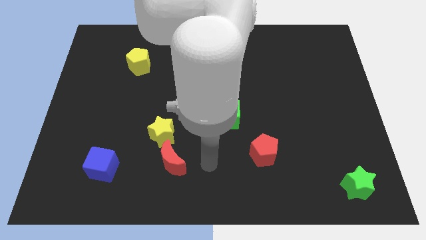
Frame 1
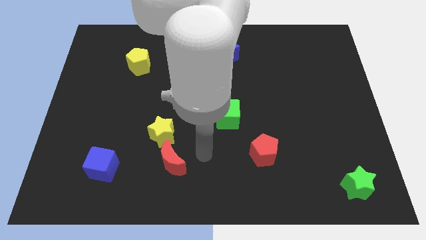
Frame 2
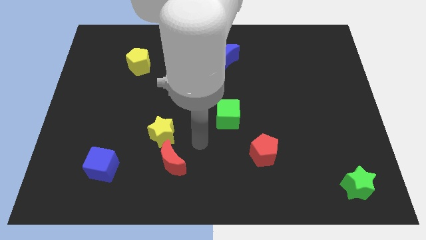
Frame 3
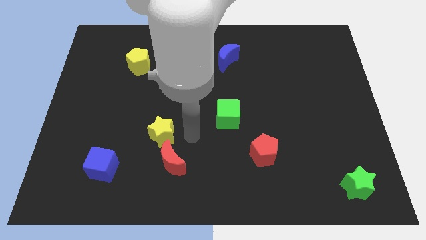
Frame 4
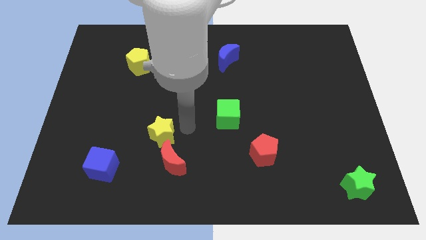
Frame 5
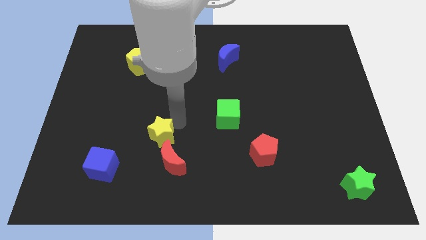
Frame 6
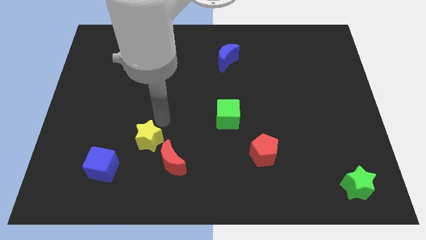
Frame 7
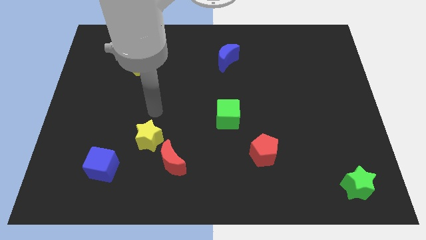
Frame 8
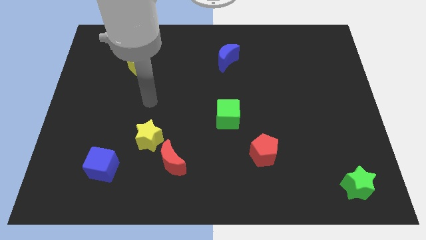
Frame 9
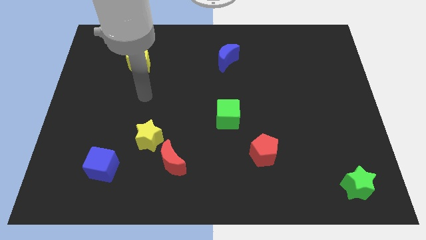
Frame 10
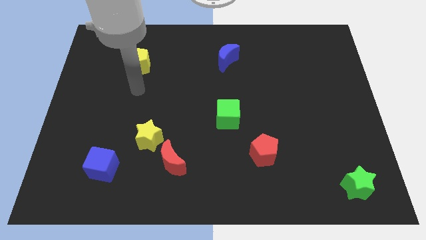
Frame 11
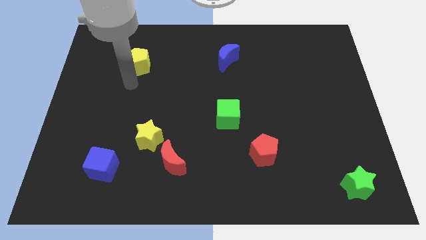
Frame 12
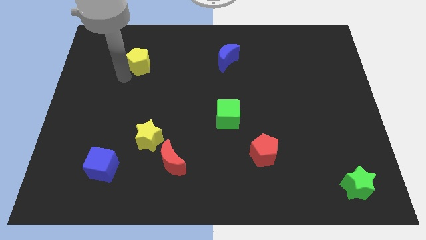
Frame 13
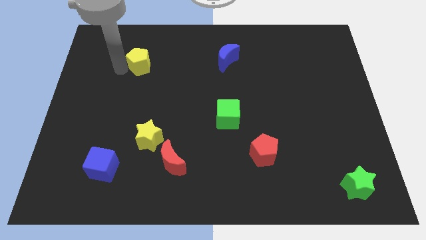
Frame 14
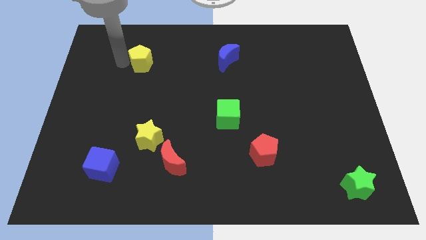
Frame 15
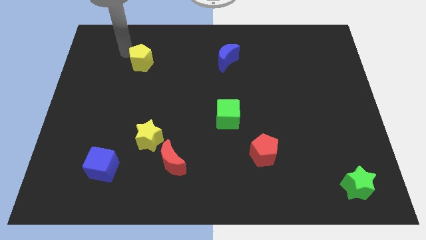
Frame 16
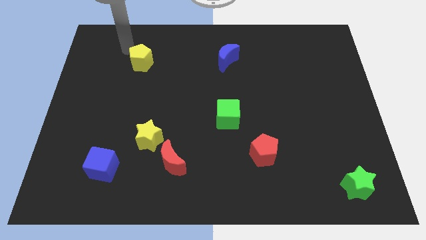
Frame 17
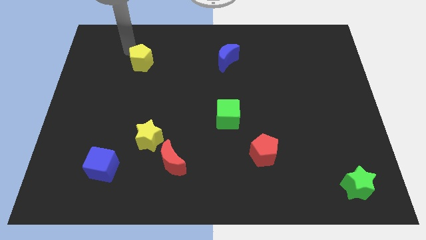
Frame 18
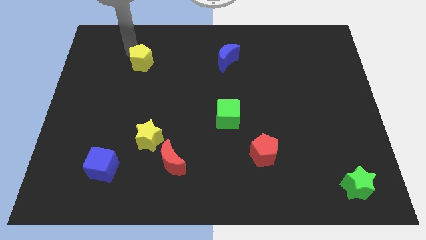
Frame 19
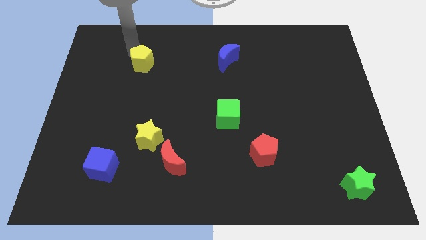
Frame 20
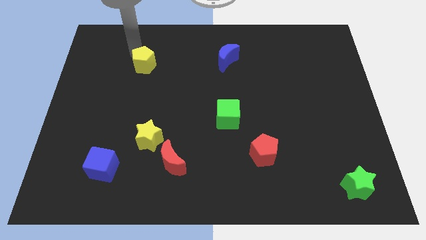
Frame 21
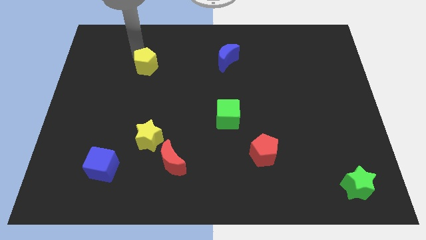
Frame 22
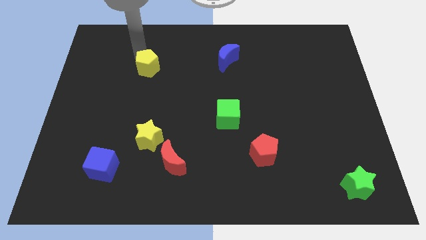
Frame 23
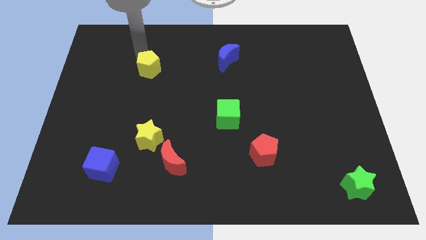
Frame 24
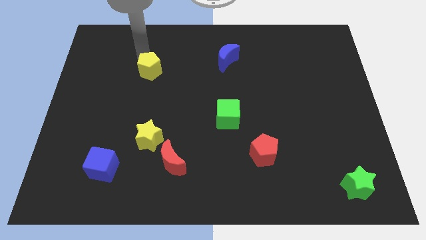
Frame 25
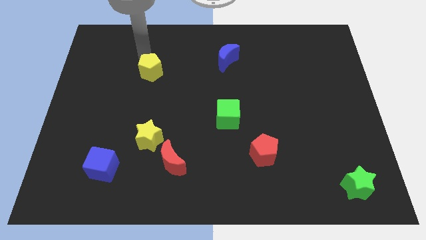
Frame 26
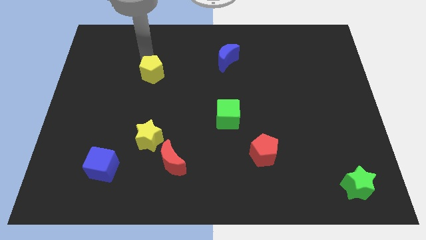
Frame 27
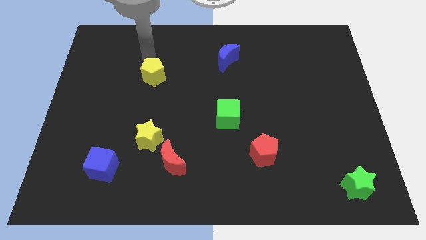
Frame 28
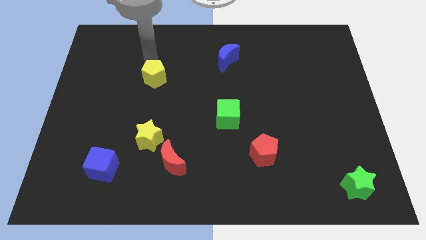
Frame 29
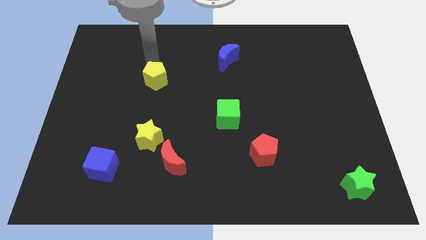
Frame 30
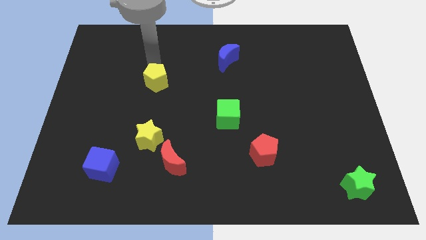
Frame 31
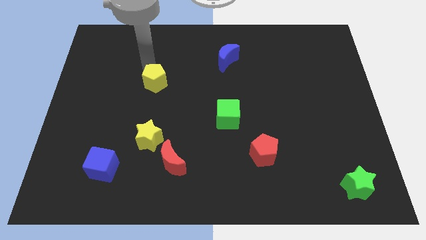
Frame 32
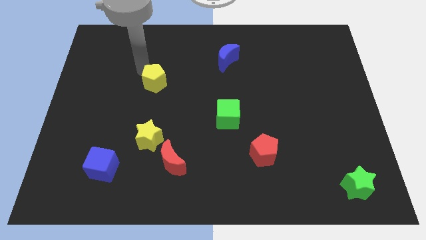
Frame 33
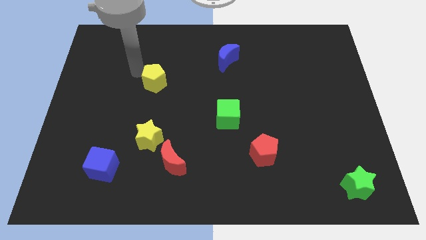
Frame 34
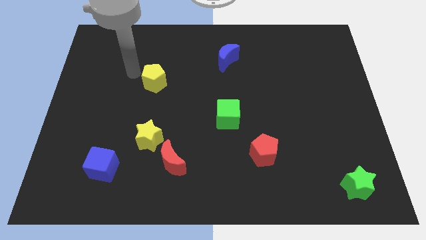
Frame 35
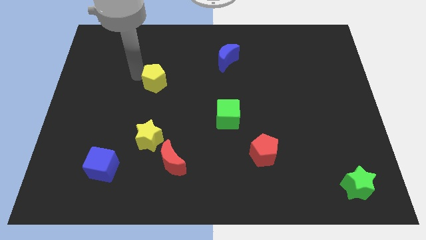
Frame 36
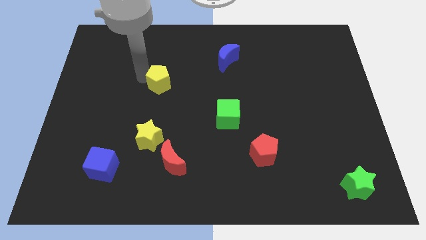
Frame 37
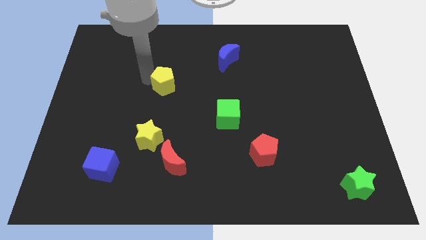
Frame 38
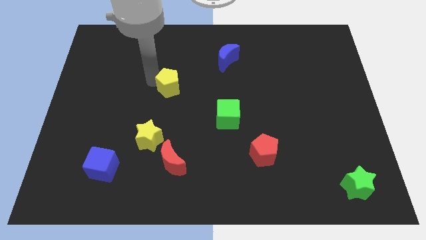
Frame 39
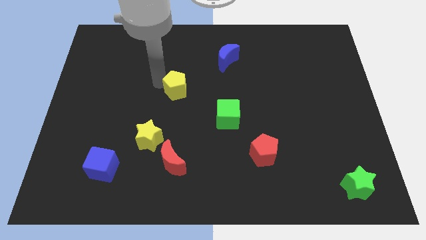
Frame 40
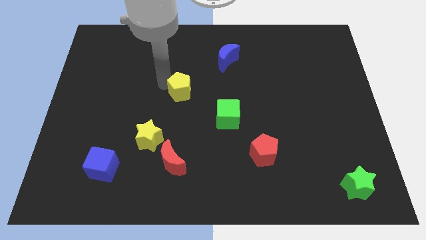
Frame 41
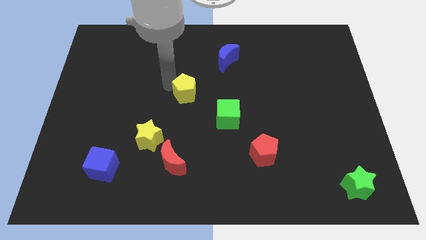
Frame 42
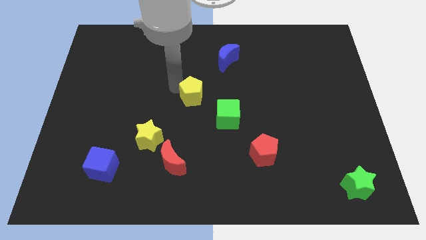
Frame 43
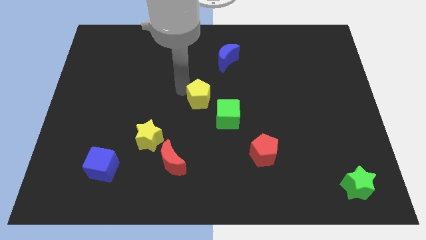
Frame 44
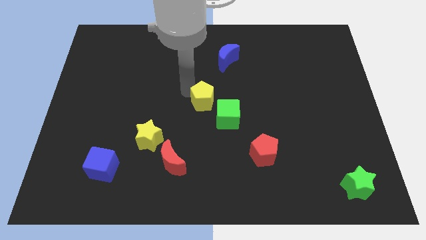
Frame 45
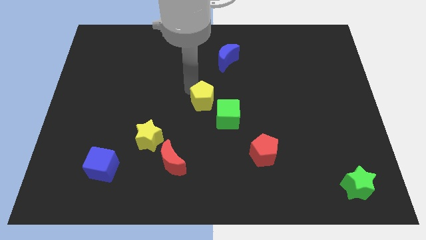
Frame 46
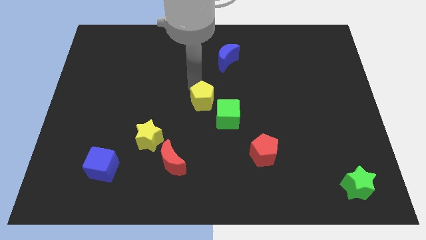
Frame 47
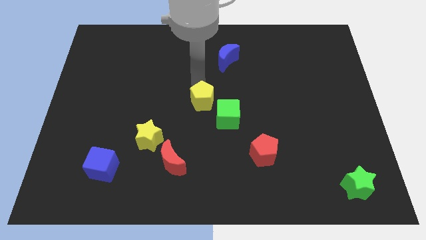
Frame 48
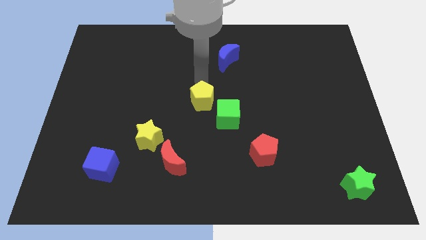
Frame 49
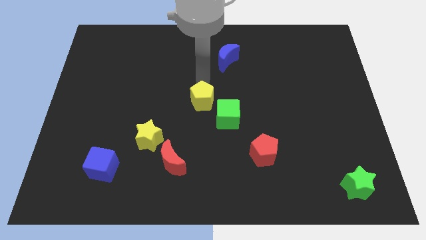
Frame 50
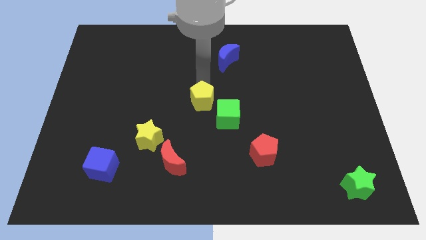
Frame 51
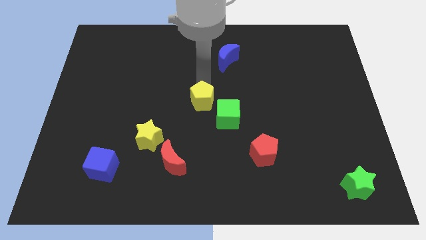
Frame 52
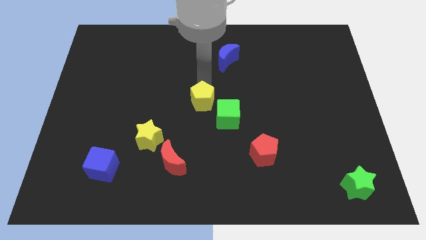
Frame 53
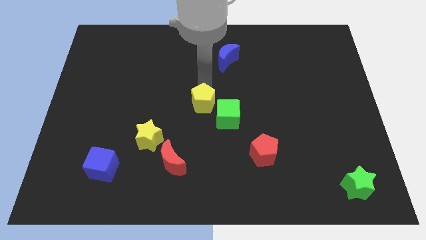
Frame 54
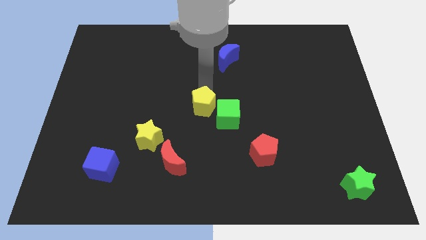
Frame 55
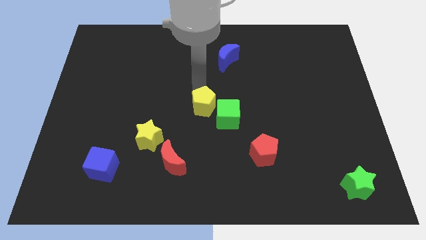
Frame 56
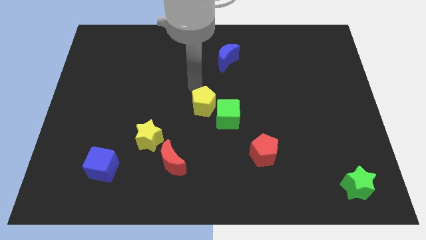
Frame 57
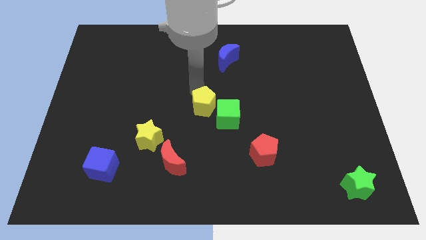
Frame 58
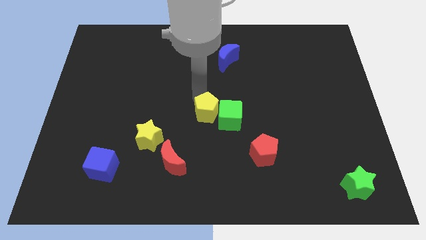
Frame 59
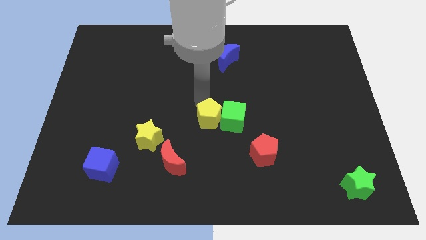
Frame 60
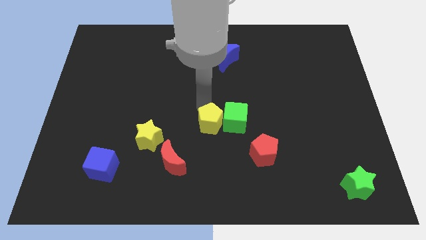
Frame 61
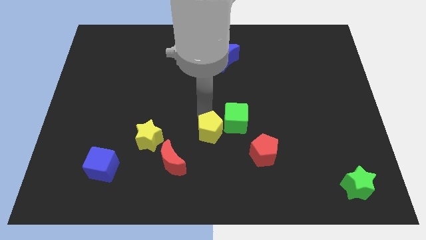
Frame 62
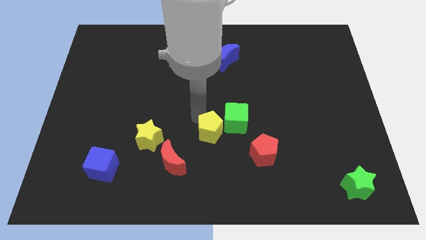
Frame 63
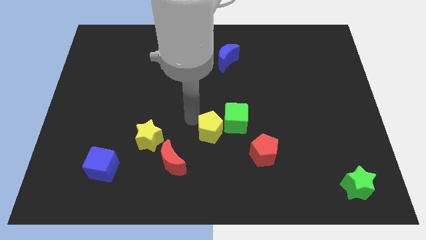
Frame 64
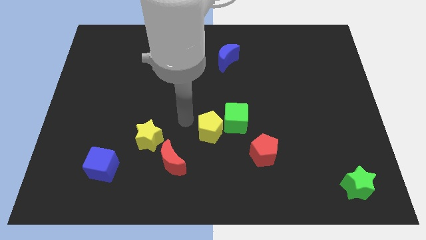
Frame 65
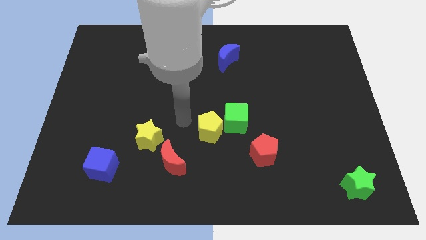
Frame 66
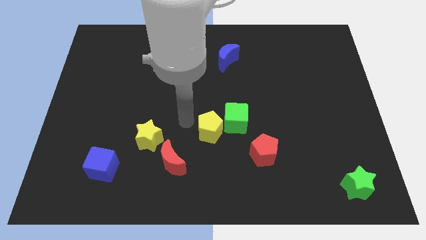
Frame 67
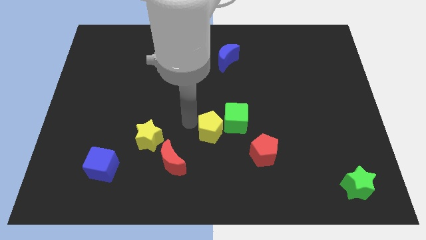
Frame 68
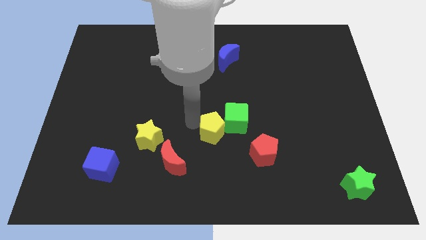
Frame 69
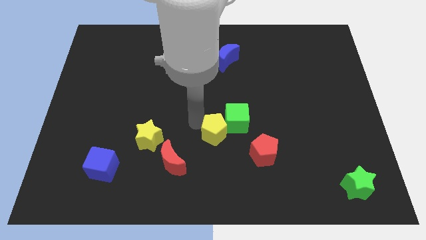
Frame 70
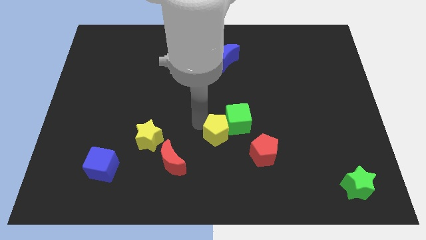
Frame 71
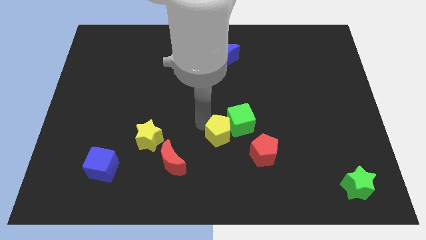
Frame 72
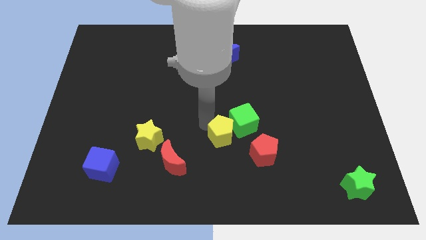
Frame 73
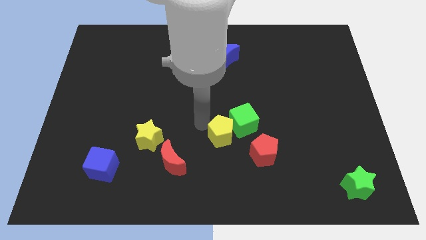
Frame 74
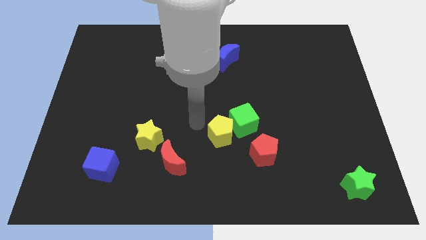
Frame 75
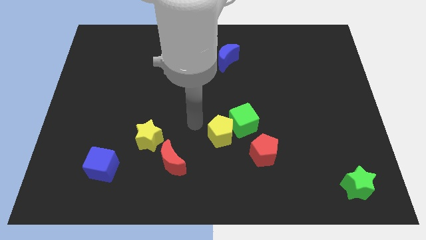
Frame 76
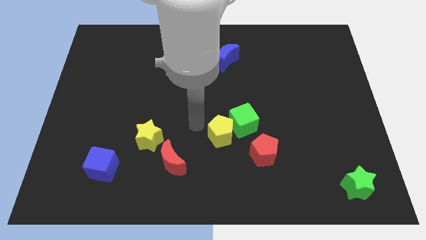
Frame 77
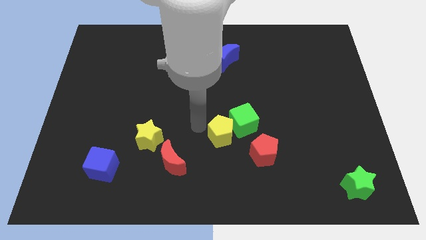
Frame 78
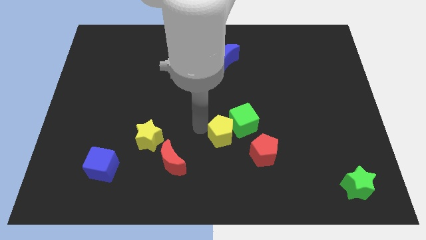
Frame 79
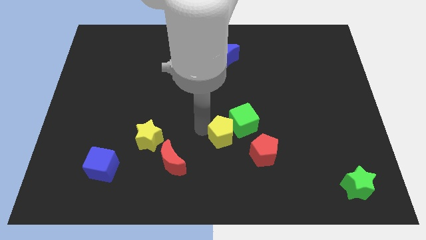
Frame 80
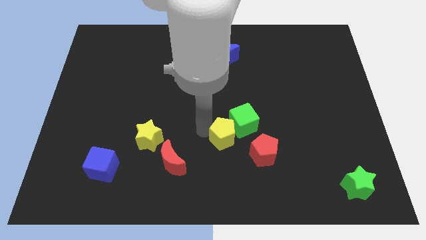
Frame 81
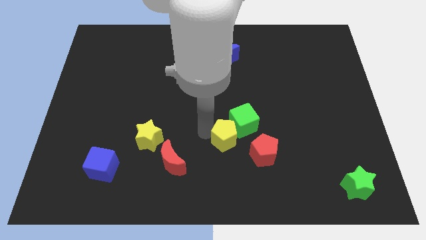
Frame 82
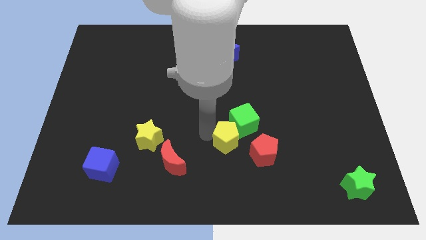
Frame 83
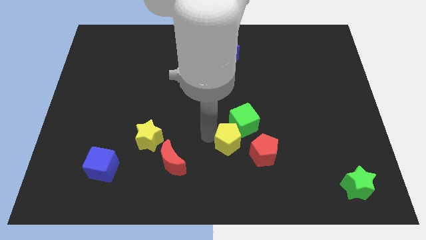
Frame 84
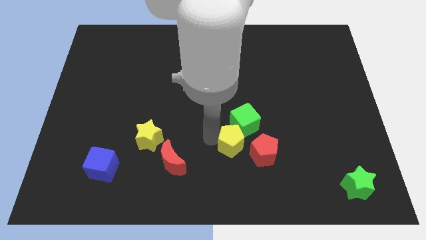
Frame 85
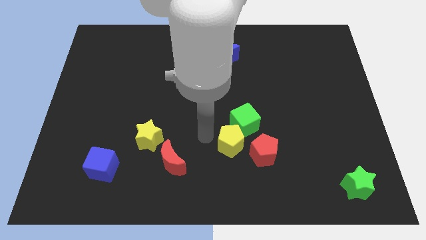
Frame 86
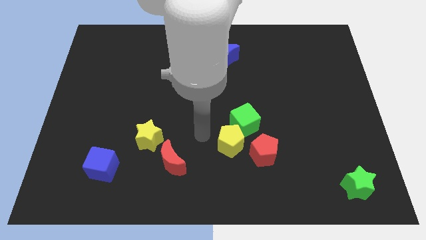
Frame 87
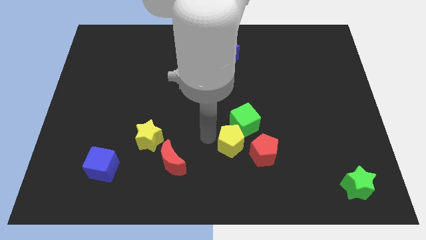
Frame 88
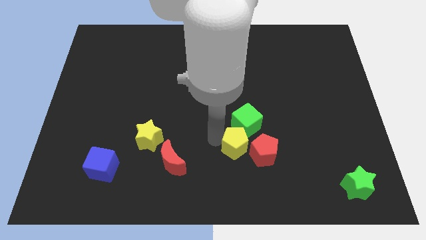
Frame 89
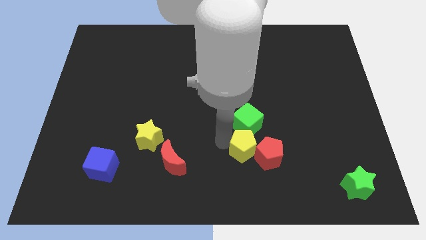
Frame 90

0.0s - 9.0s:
move the yellow pentagon next to the red pentagon
